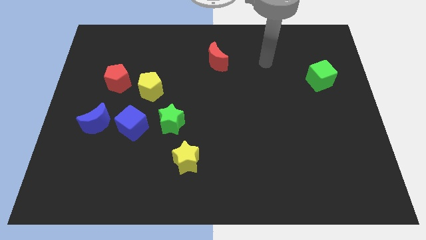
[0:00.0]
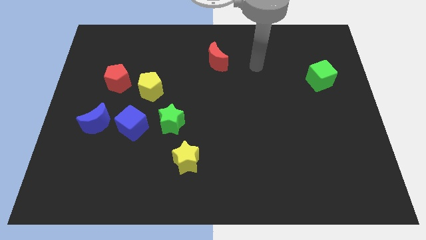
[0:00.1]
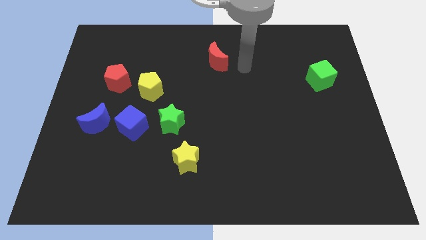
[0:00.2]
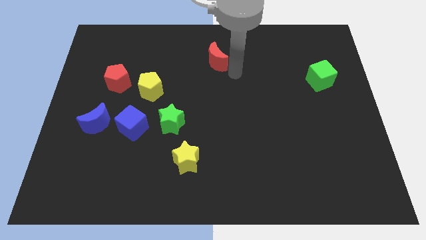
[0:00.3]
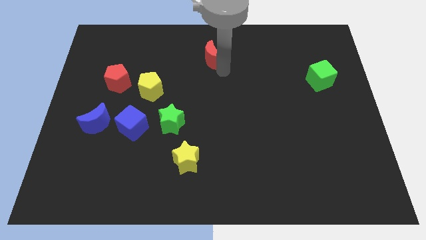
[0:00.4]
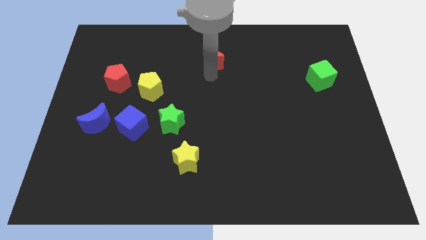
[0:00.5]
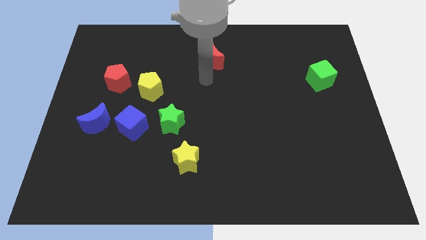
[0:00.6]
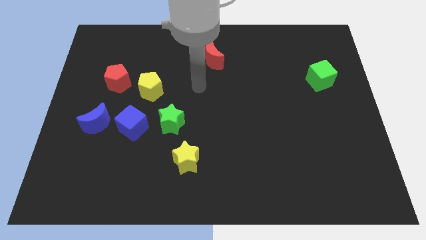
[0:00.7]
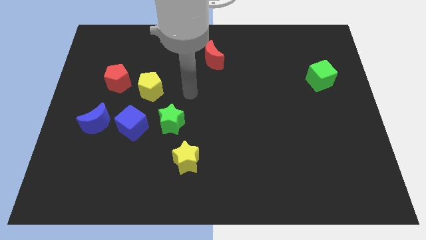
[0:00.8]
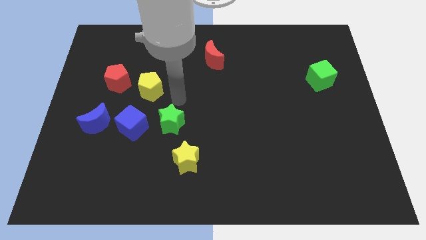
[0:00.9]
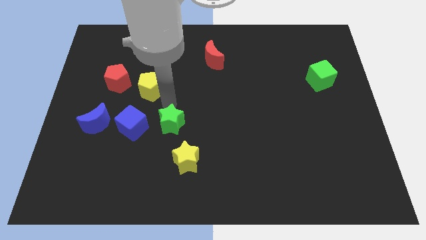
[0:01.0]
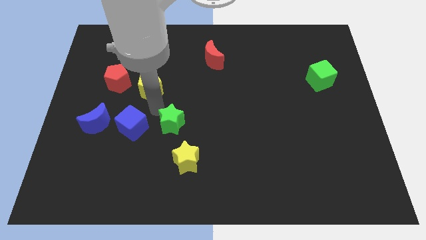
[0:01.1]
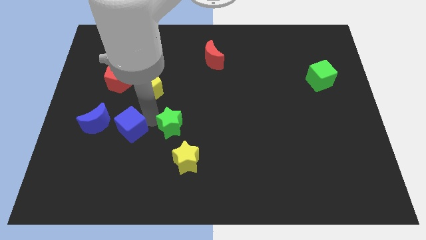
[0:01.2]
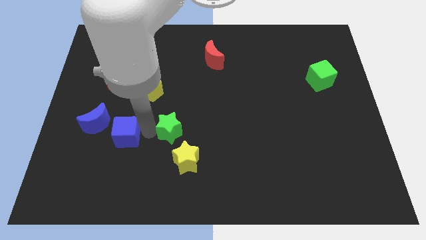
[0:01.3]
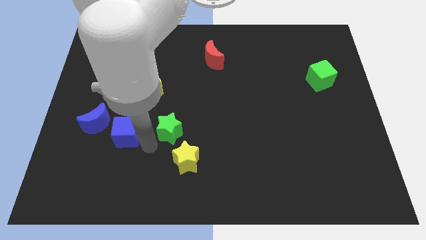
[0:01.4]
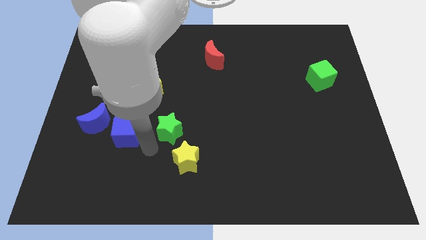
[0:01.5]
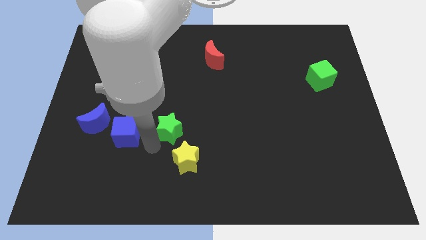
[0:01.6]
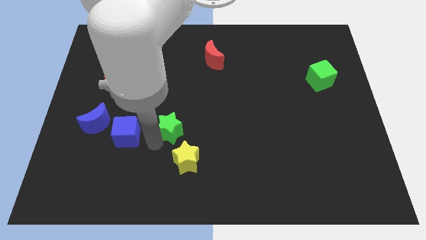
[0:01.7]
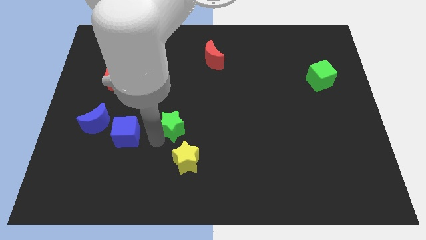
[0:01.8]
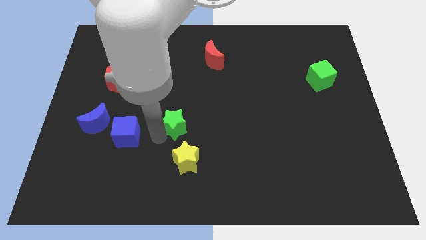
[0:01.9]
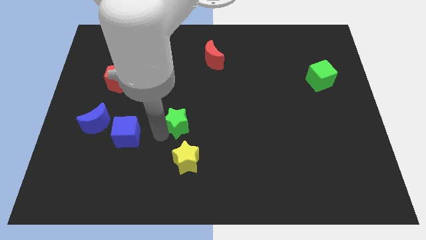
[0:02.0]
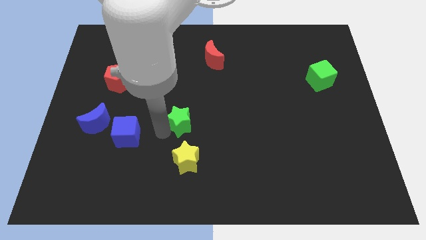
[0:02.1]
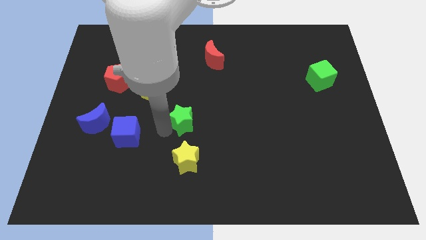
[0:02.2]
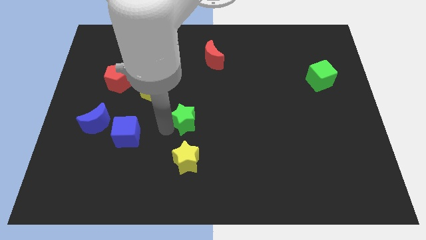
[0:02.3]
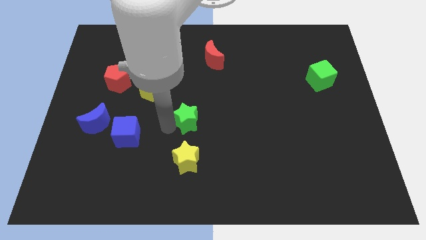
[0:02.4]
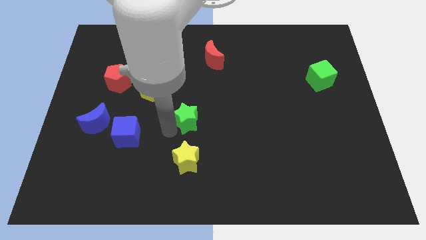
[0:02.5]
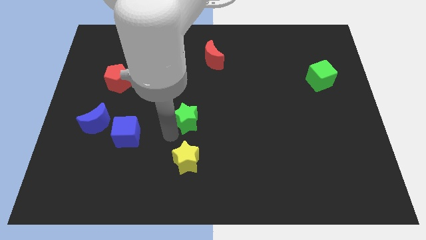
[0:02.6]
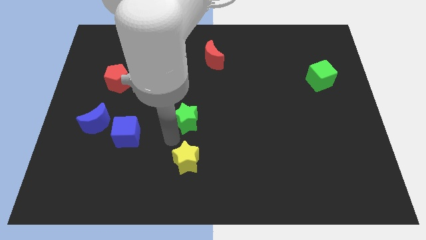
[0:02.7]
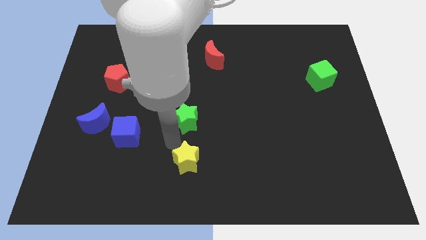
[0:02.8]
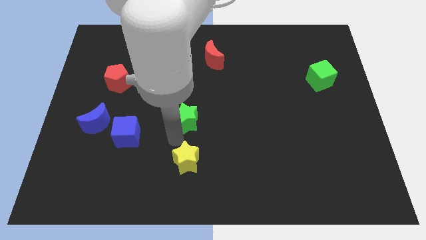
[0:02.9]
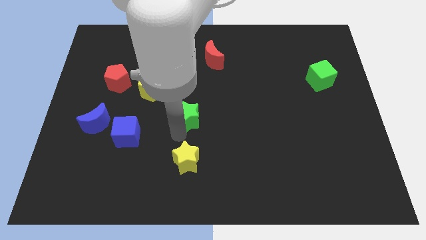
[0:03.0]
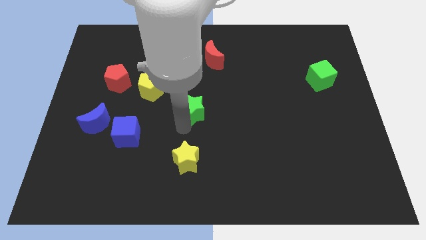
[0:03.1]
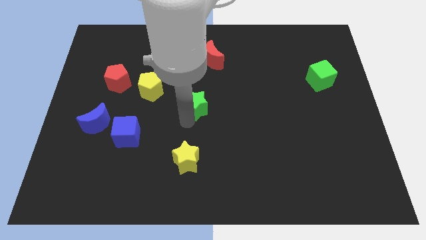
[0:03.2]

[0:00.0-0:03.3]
move the green star upwards and to the right diagonally a bit

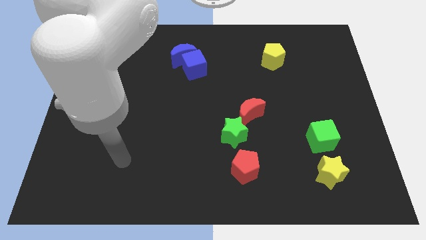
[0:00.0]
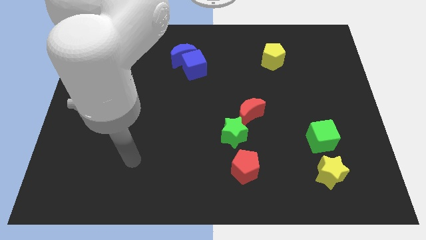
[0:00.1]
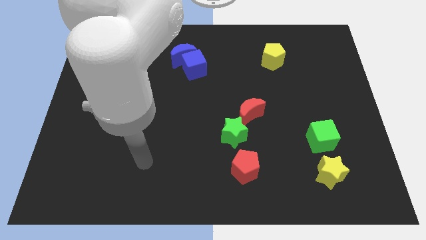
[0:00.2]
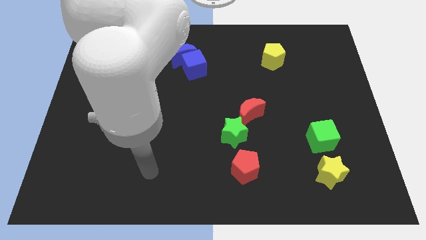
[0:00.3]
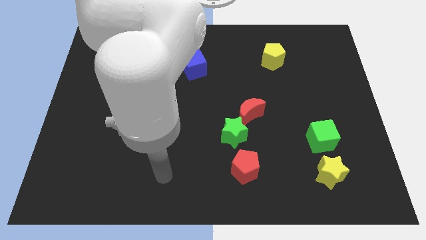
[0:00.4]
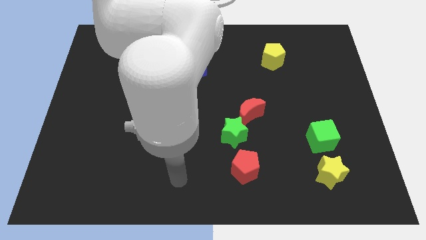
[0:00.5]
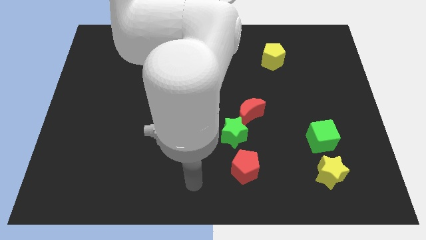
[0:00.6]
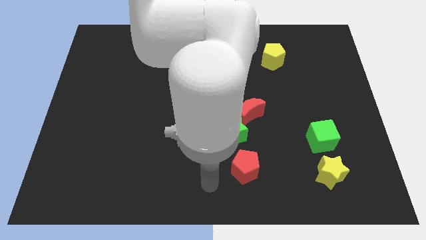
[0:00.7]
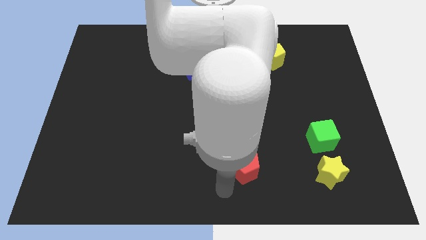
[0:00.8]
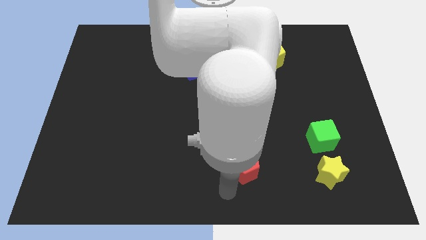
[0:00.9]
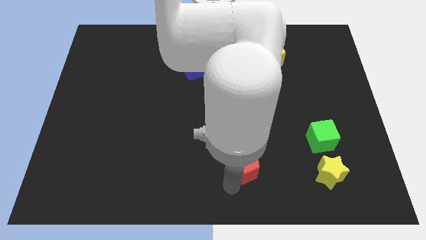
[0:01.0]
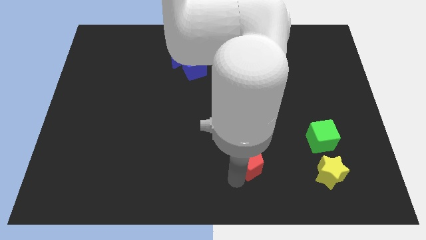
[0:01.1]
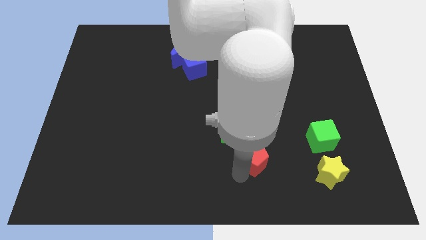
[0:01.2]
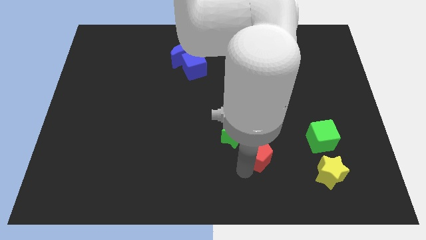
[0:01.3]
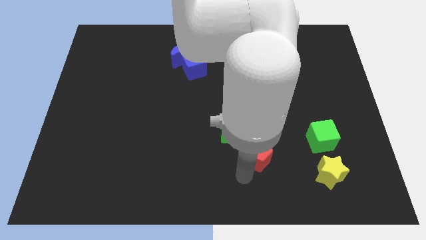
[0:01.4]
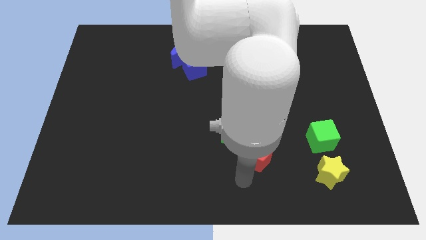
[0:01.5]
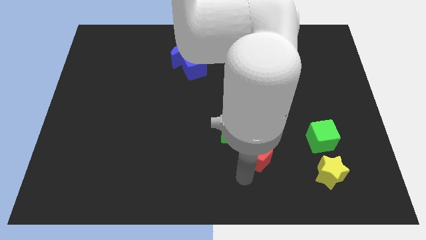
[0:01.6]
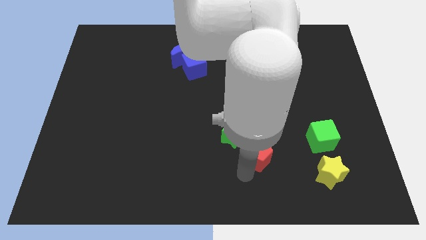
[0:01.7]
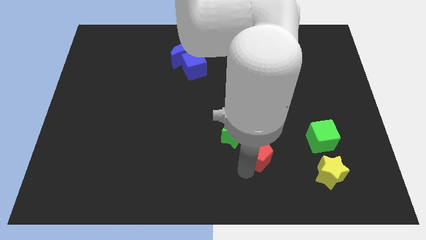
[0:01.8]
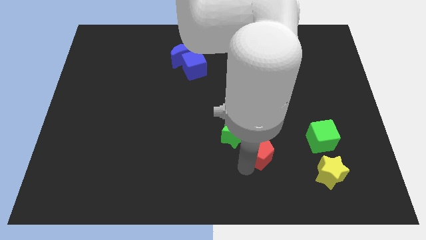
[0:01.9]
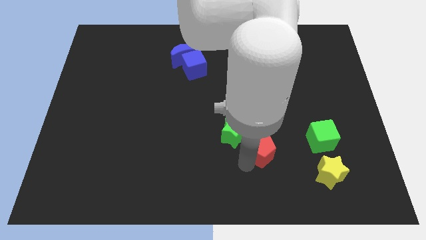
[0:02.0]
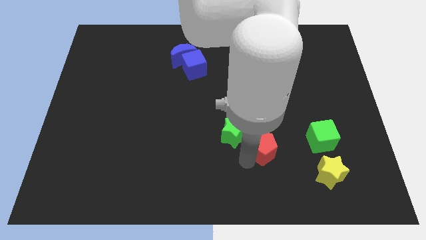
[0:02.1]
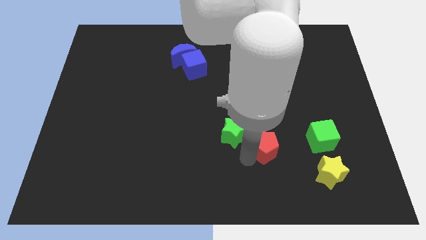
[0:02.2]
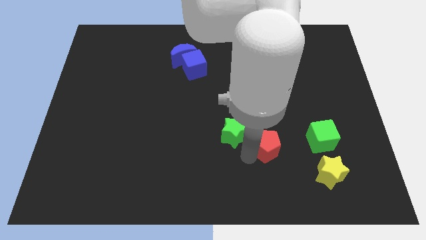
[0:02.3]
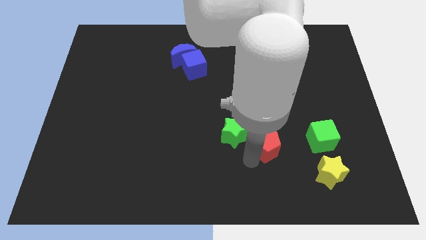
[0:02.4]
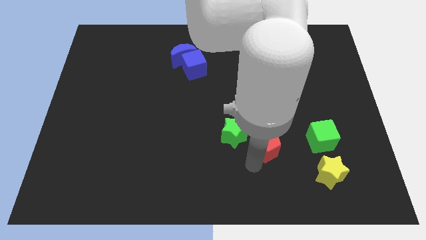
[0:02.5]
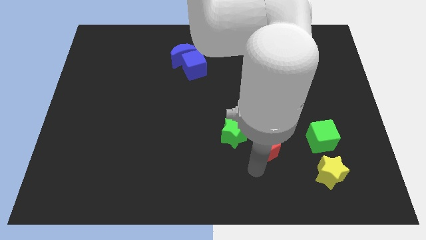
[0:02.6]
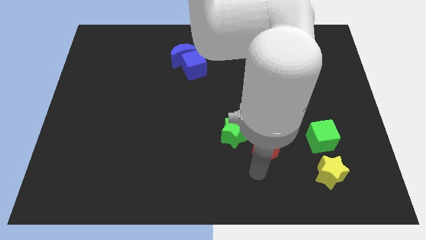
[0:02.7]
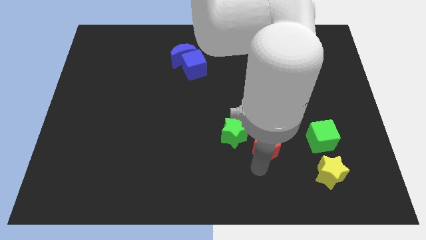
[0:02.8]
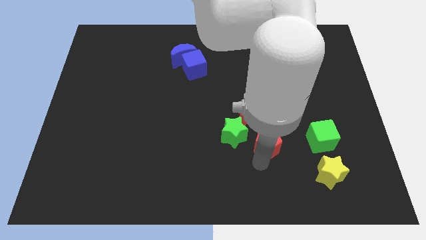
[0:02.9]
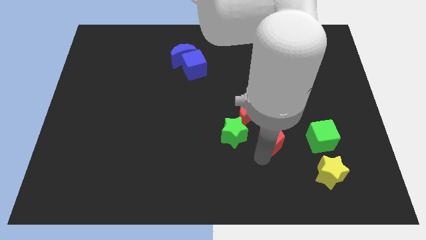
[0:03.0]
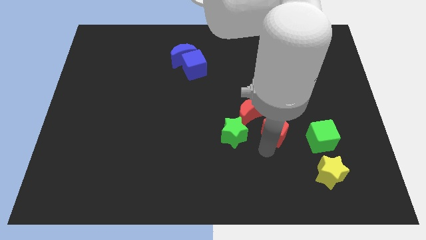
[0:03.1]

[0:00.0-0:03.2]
slightly slide the red pentagon upwards

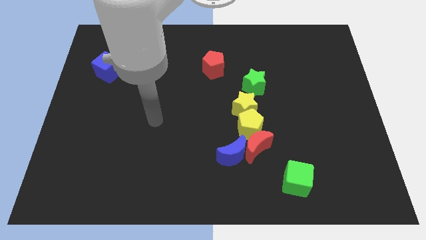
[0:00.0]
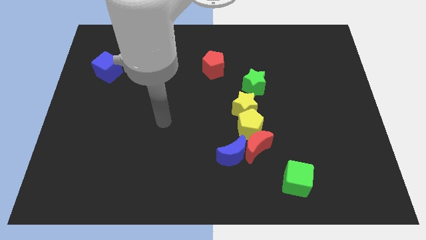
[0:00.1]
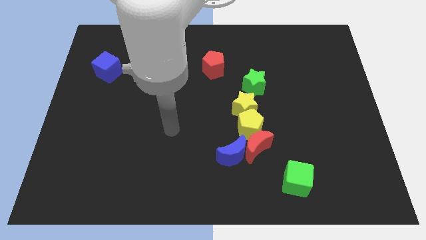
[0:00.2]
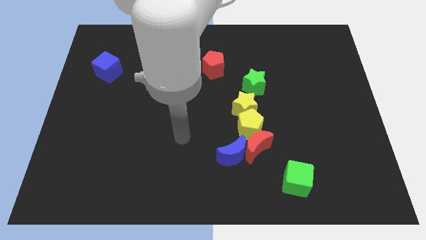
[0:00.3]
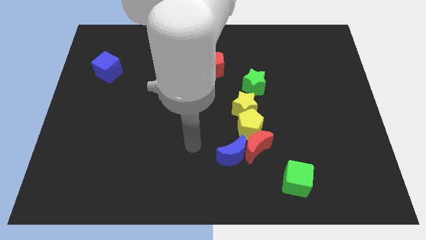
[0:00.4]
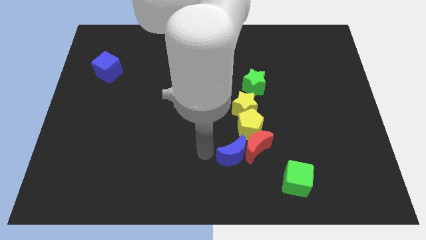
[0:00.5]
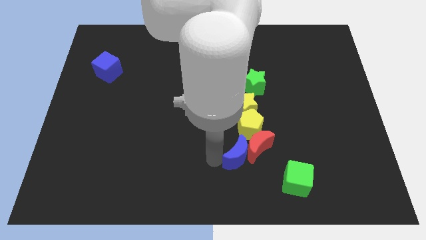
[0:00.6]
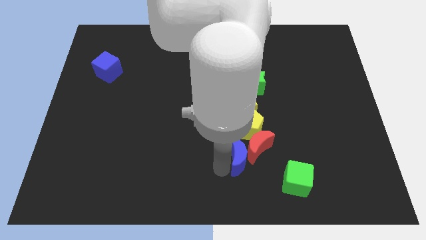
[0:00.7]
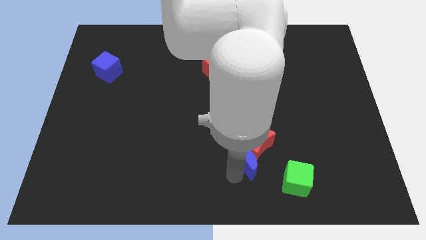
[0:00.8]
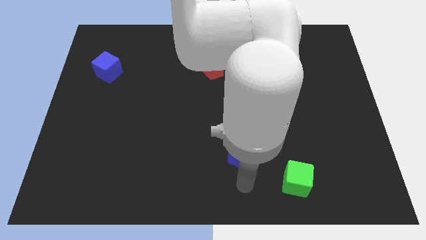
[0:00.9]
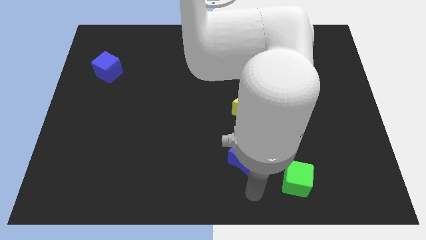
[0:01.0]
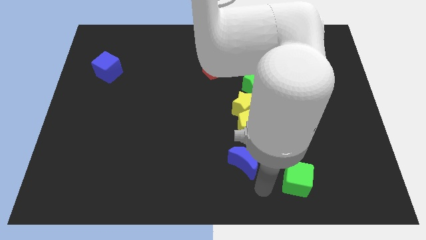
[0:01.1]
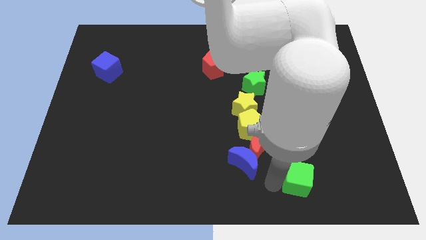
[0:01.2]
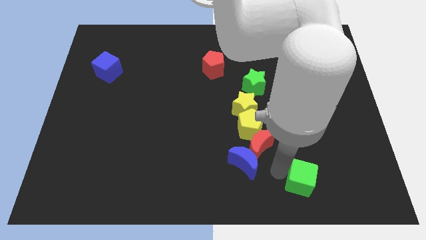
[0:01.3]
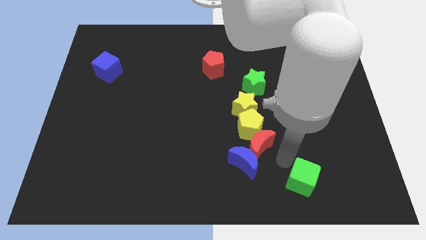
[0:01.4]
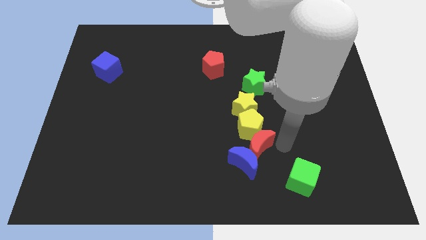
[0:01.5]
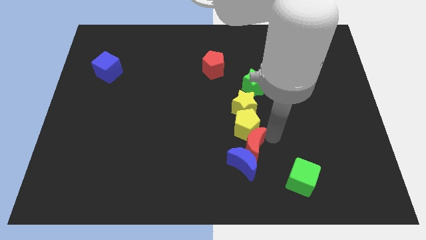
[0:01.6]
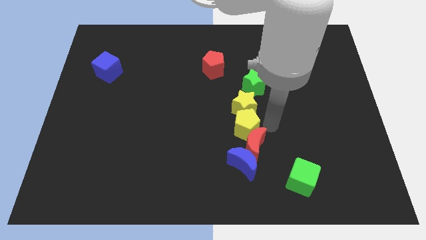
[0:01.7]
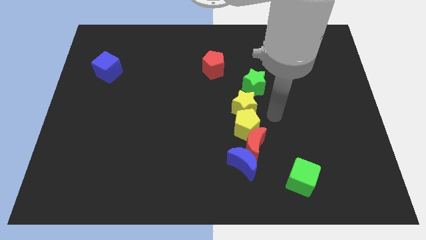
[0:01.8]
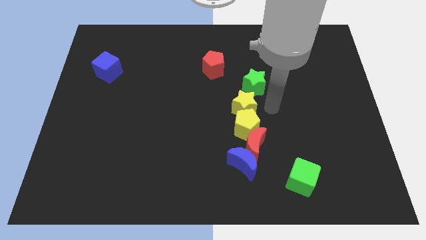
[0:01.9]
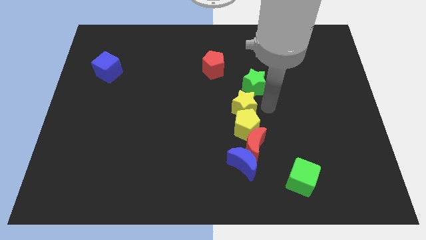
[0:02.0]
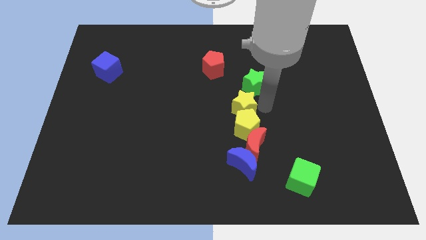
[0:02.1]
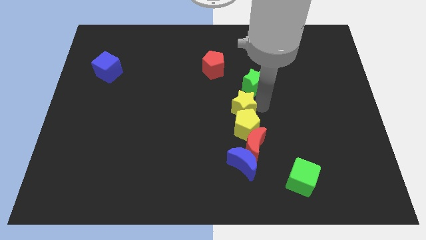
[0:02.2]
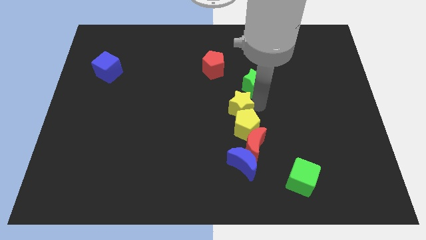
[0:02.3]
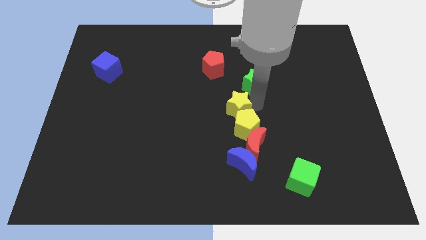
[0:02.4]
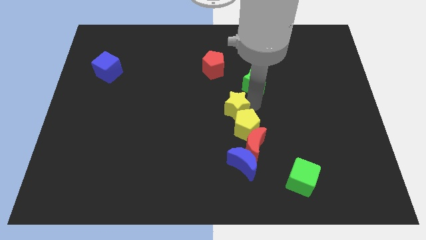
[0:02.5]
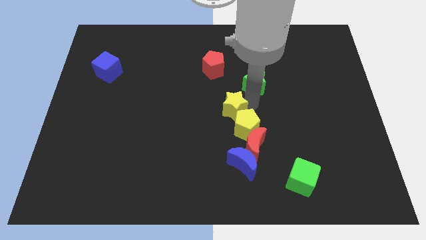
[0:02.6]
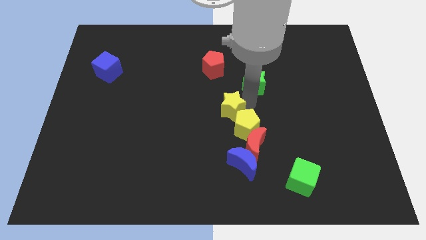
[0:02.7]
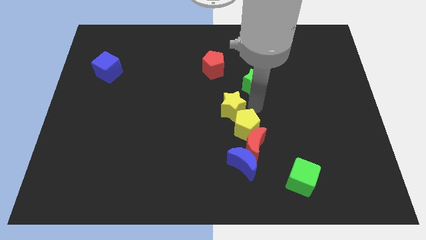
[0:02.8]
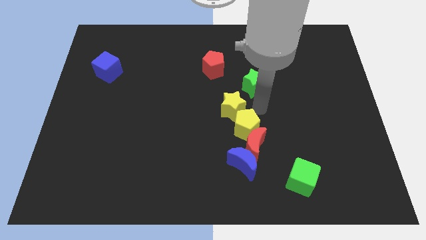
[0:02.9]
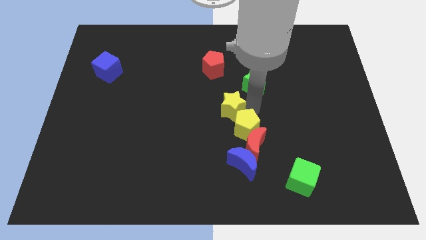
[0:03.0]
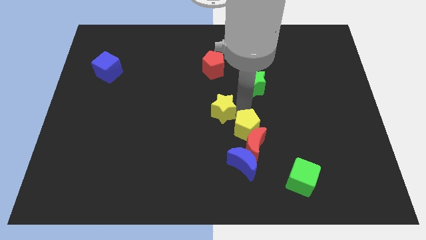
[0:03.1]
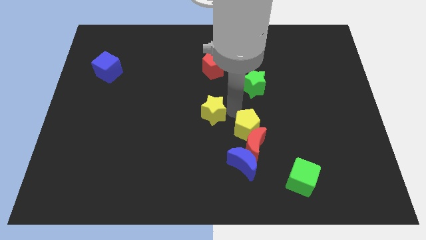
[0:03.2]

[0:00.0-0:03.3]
slightly push the yellow star to the left
